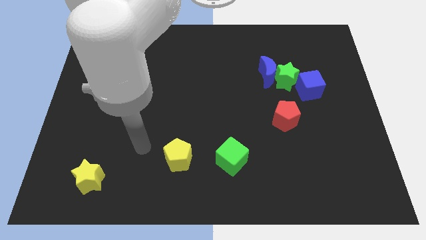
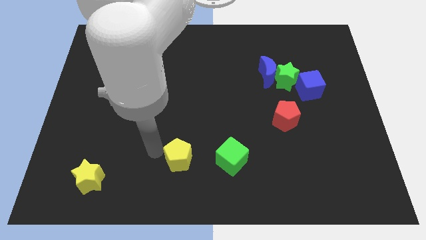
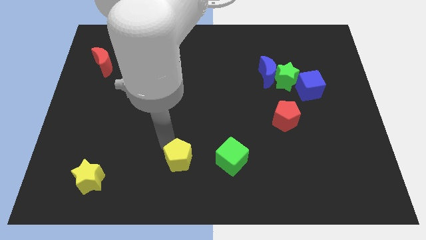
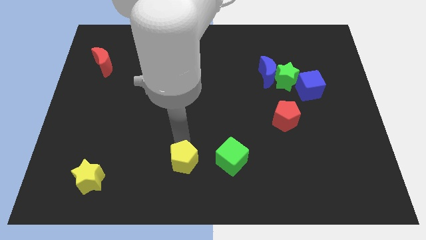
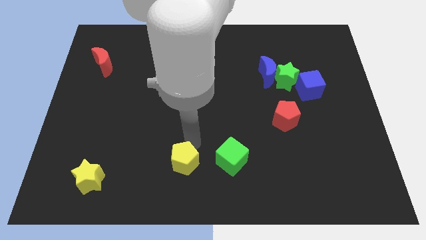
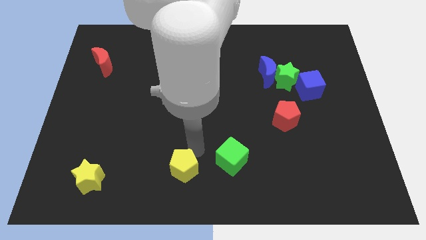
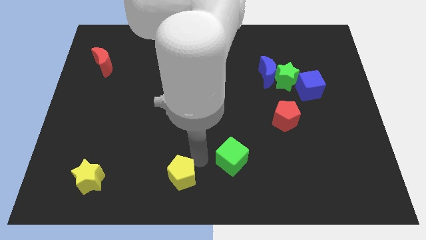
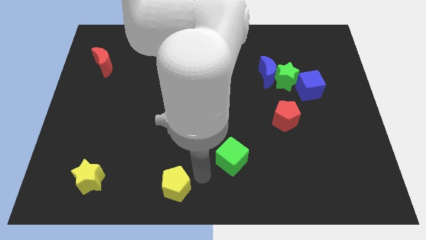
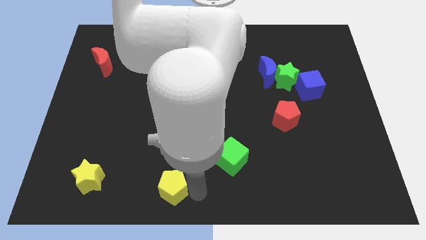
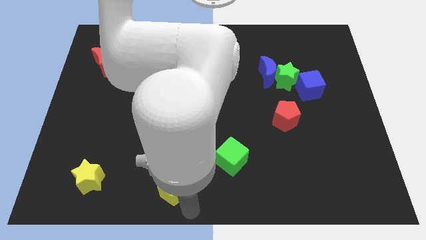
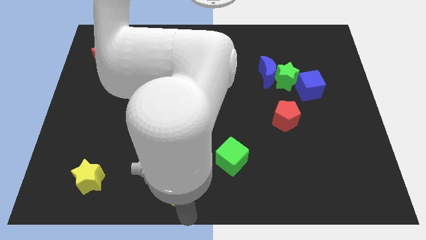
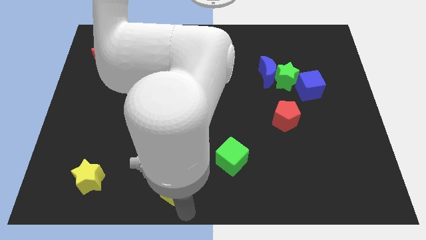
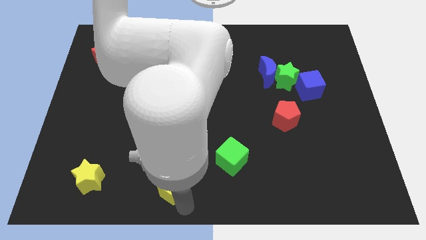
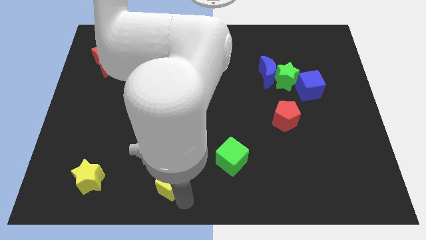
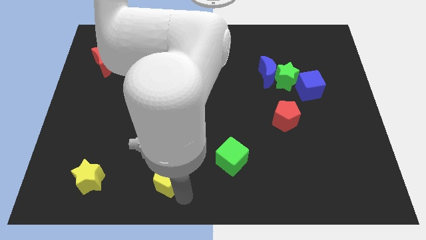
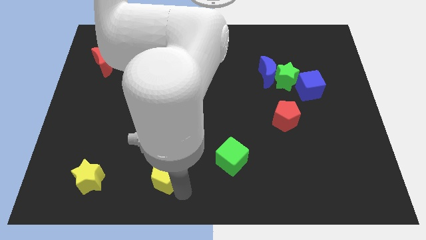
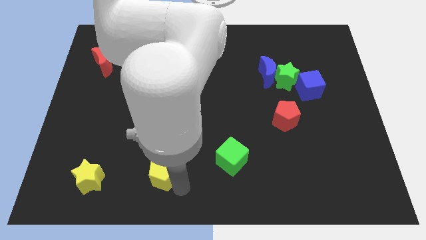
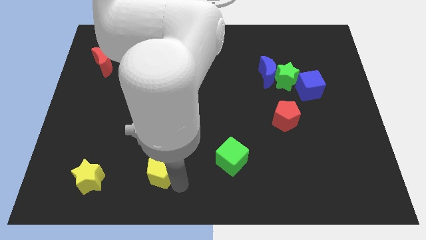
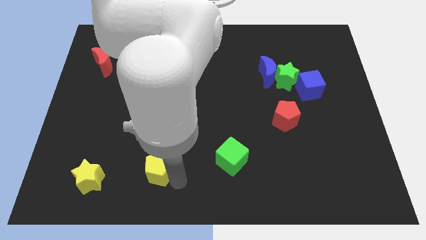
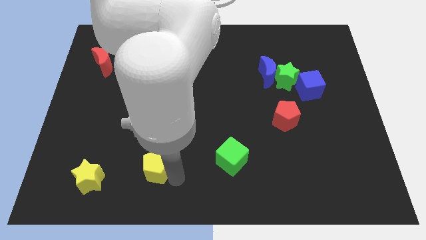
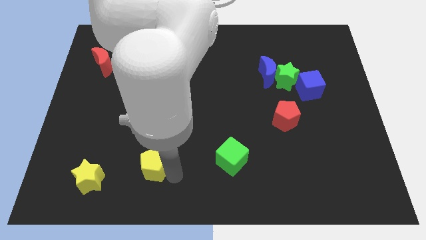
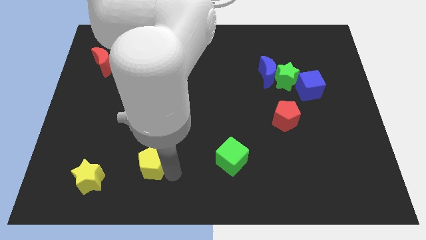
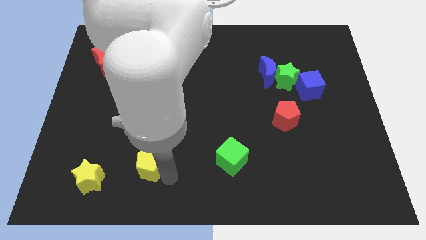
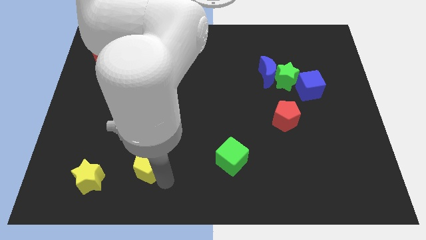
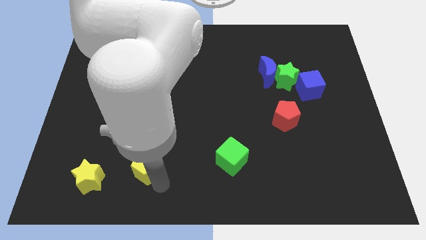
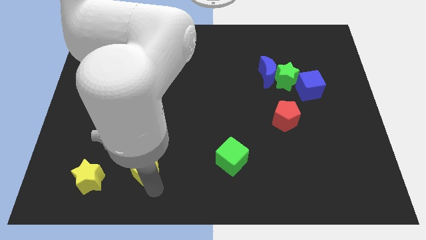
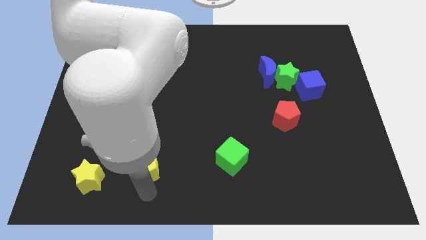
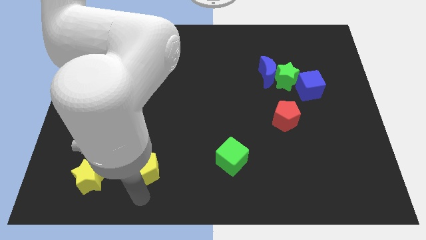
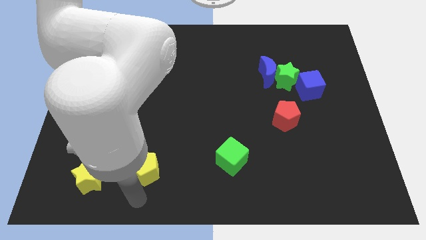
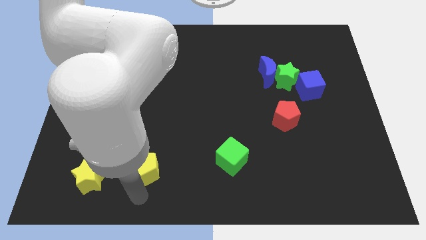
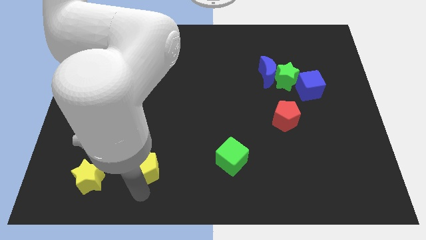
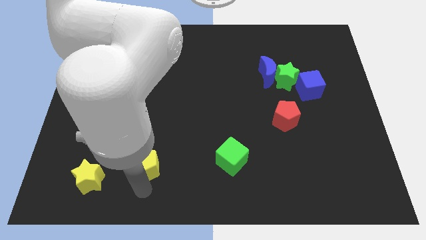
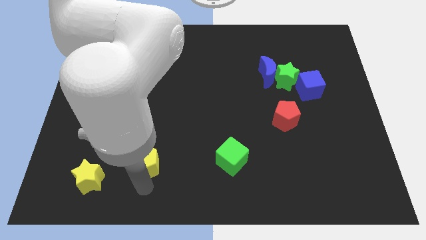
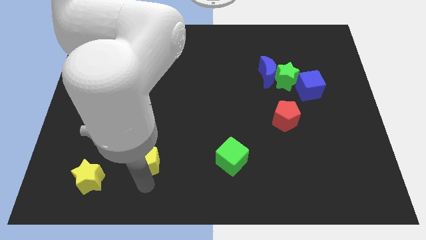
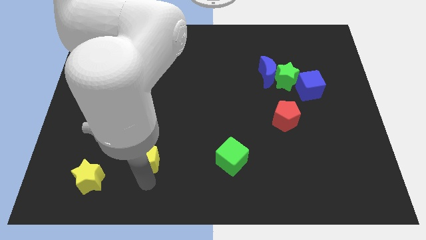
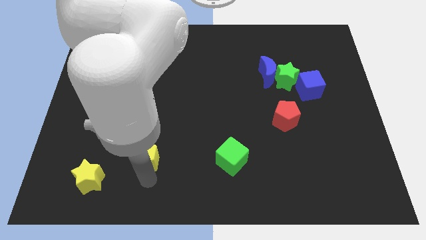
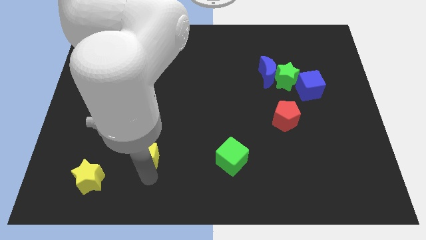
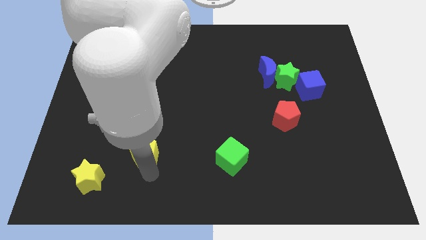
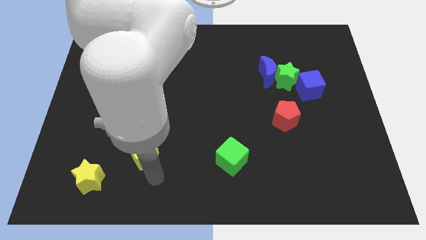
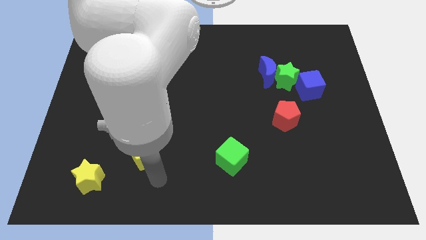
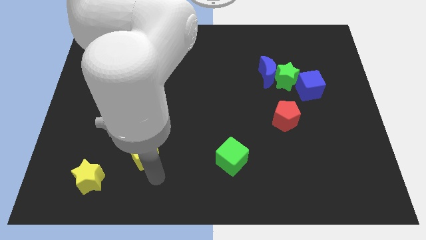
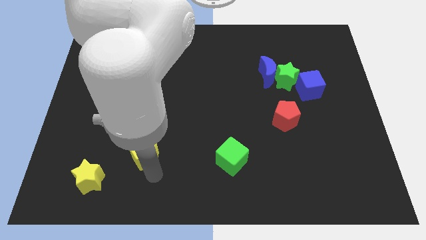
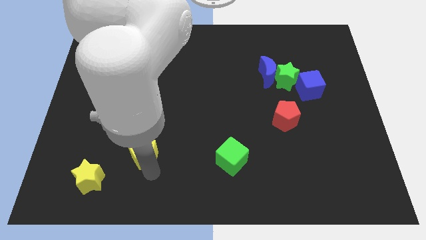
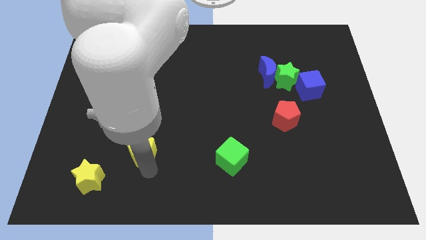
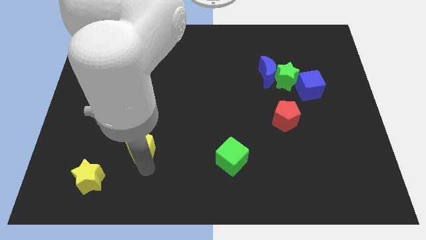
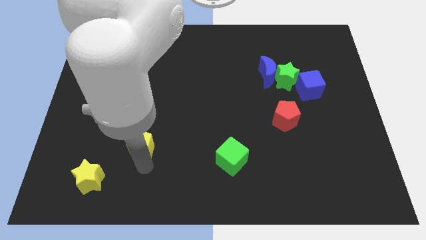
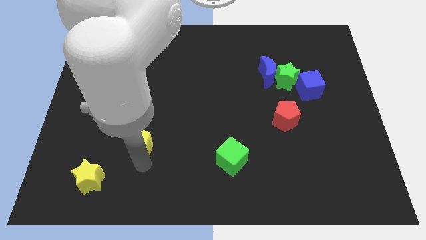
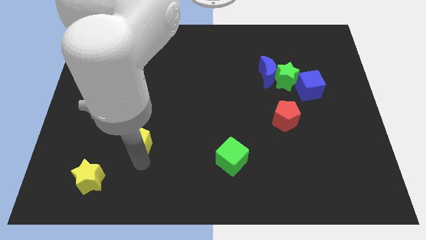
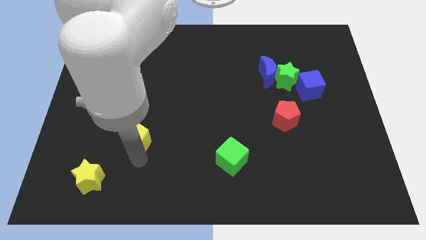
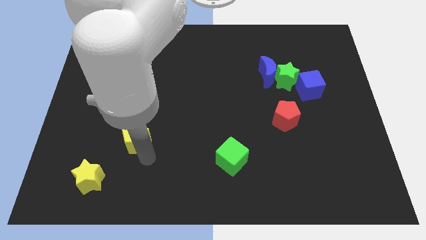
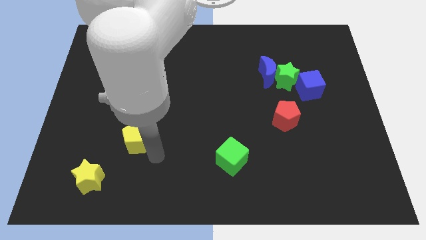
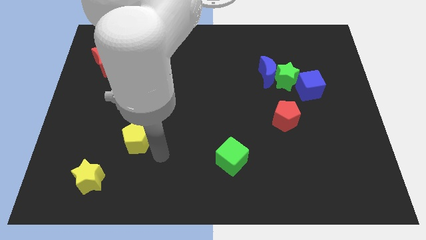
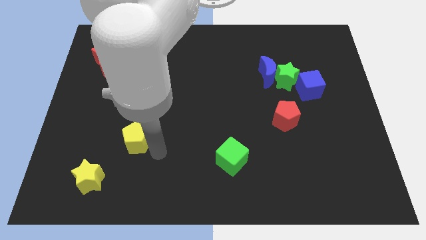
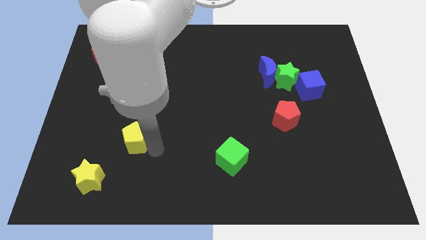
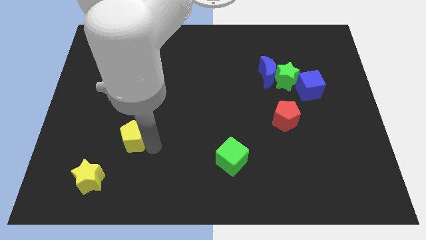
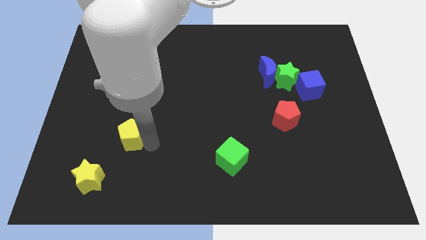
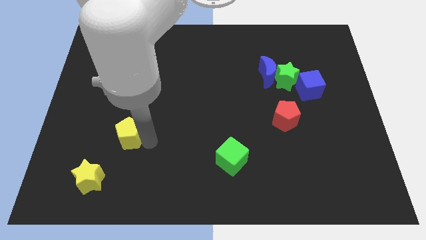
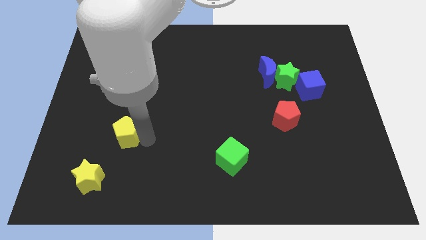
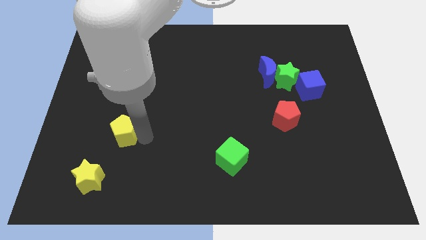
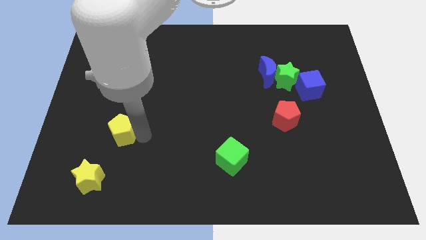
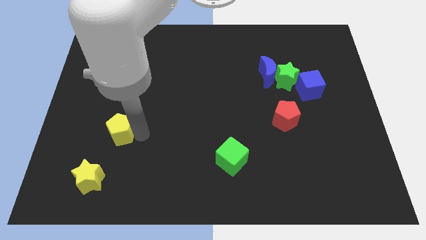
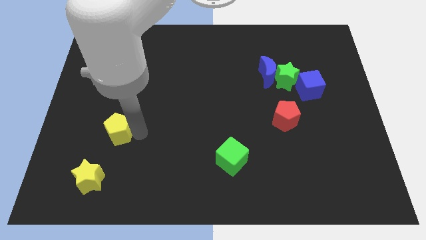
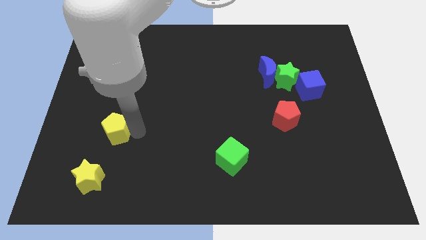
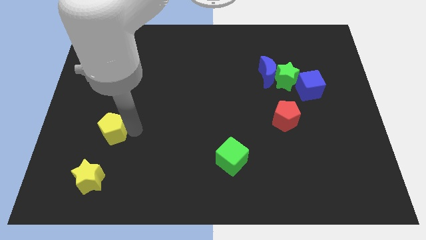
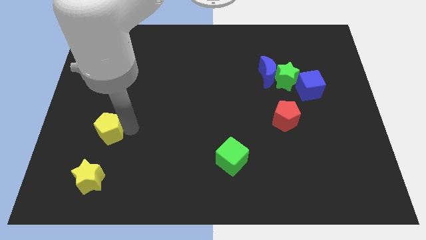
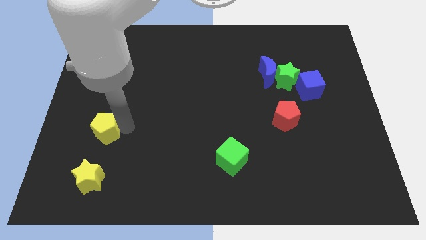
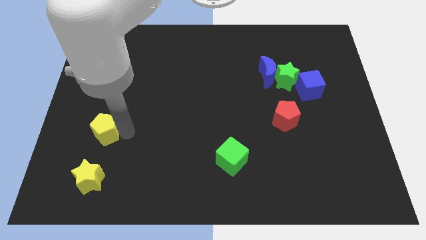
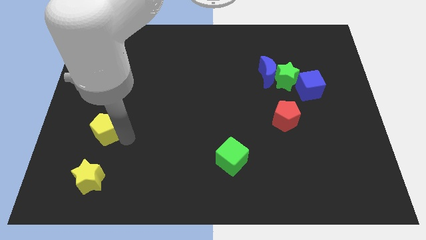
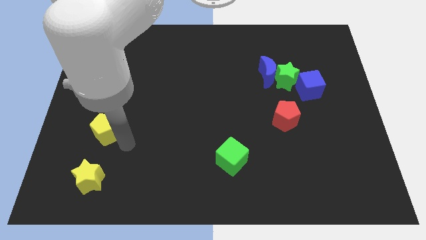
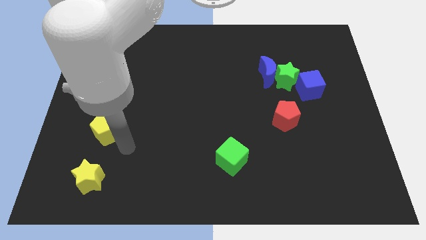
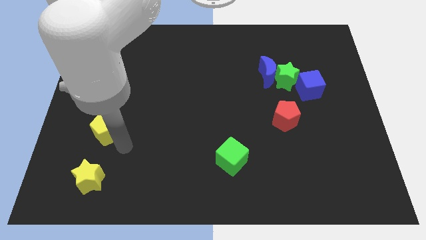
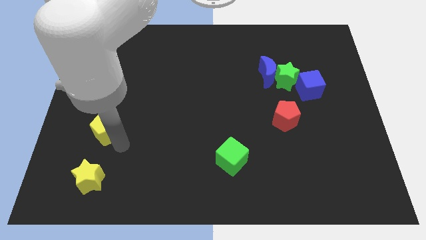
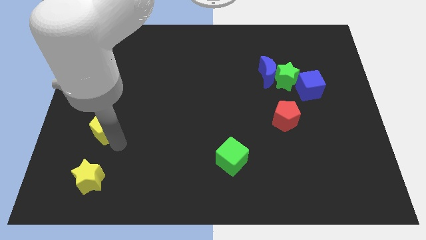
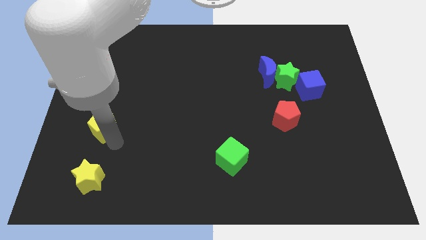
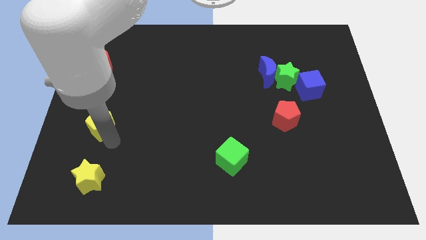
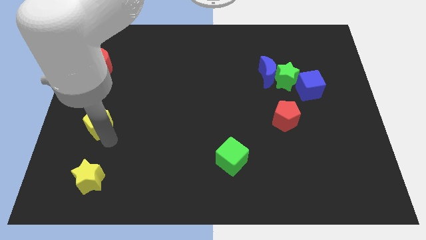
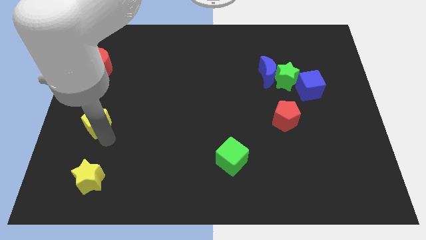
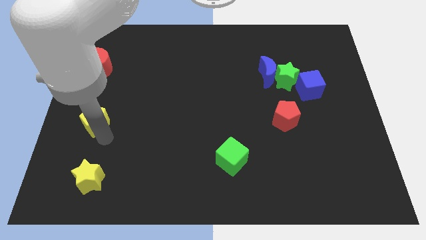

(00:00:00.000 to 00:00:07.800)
put the yellow pentagon to the left side of the board
